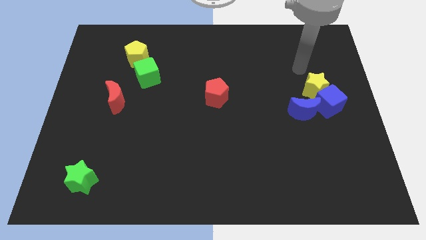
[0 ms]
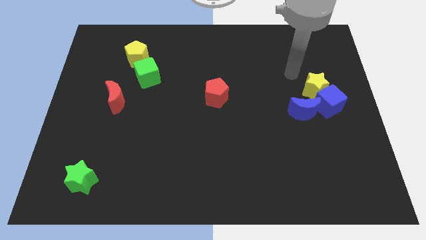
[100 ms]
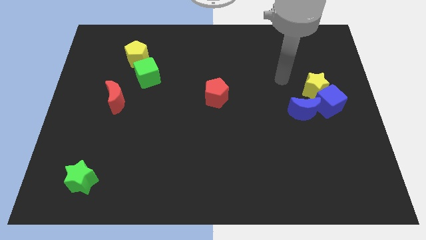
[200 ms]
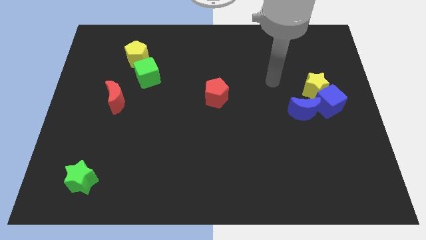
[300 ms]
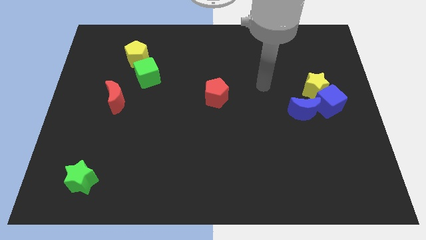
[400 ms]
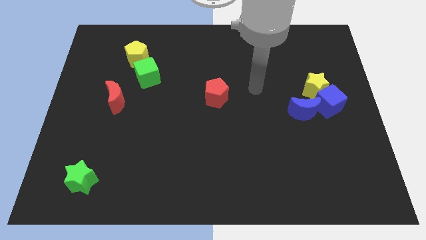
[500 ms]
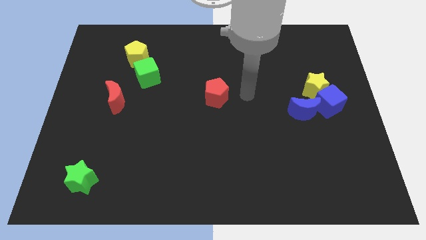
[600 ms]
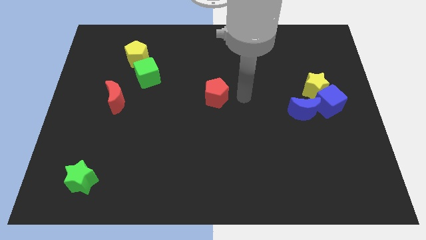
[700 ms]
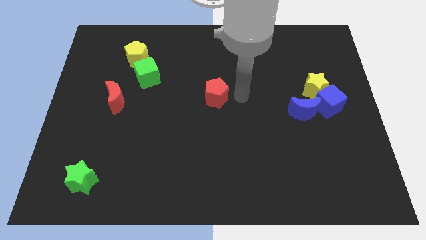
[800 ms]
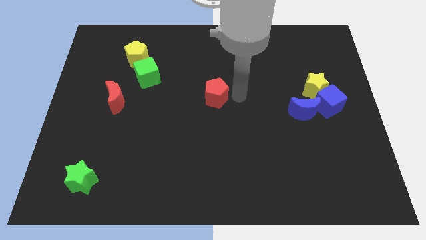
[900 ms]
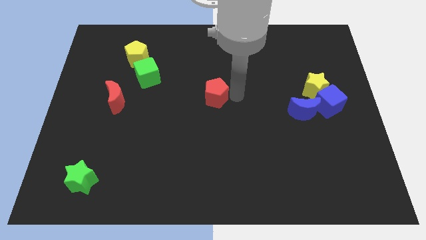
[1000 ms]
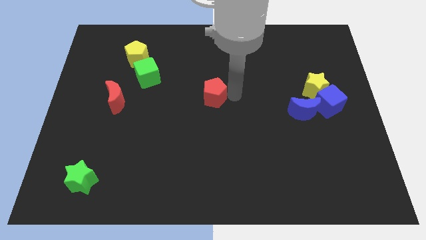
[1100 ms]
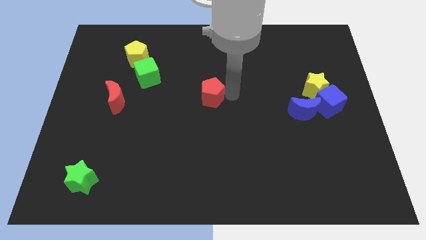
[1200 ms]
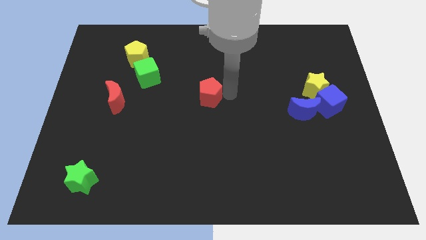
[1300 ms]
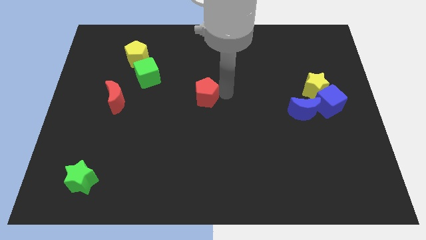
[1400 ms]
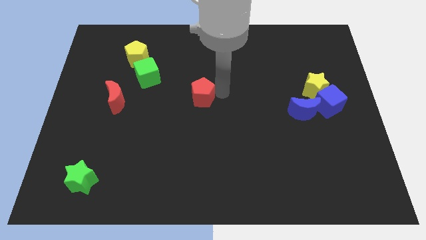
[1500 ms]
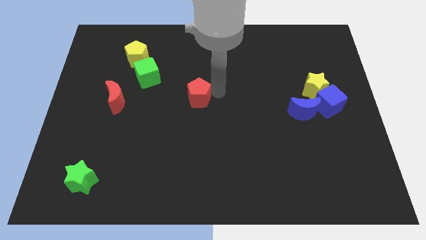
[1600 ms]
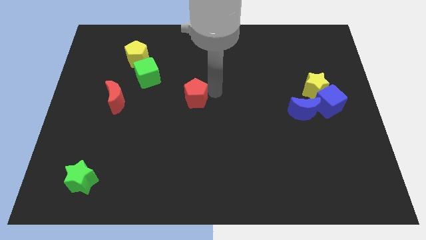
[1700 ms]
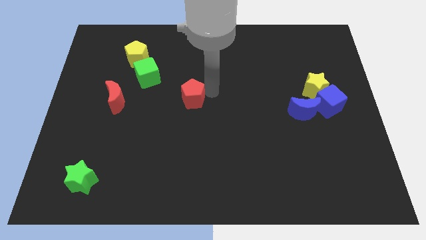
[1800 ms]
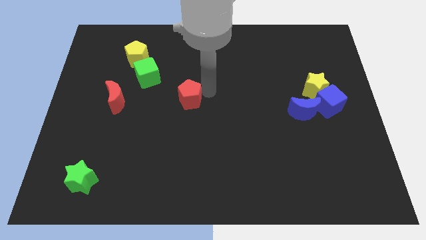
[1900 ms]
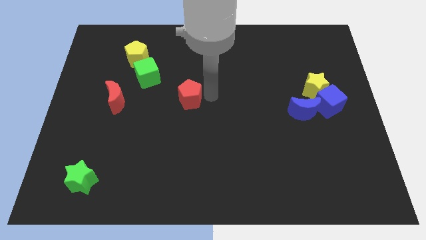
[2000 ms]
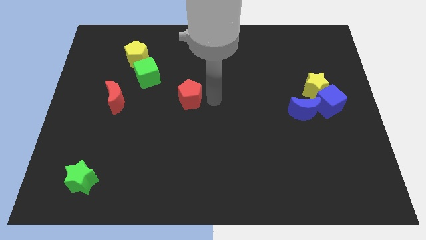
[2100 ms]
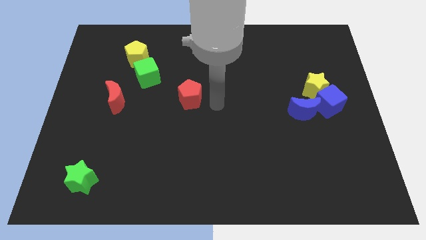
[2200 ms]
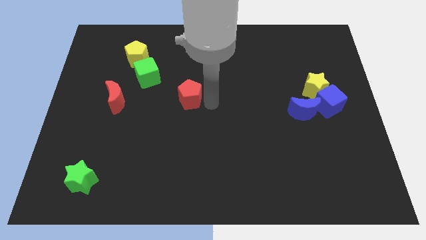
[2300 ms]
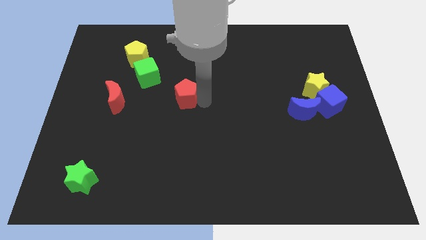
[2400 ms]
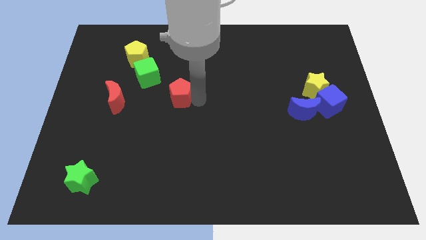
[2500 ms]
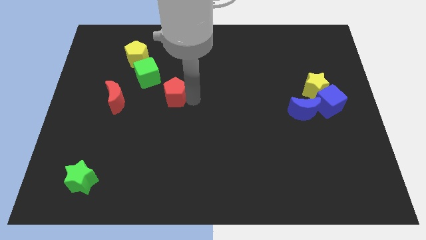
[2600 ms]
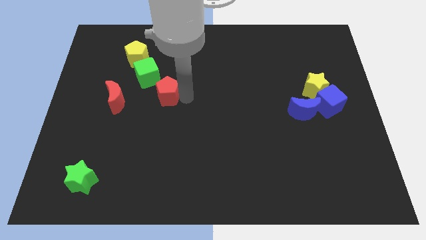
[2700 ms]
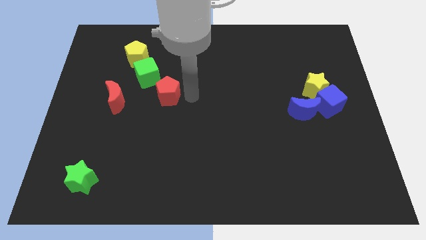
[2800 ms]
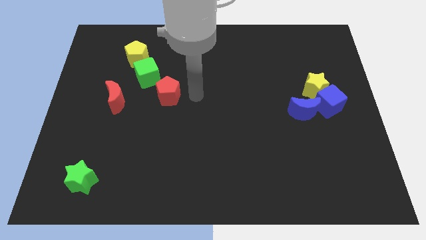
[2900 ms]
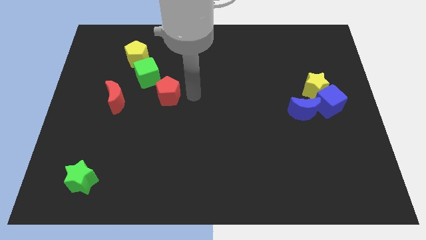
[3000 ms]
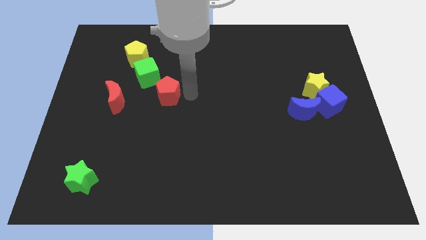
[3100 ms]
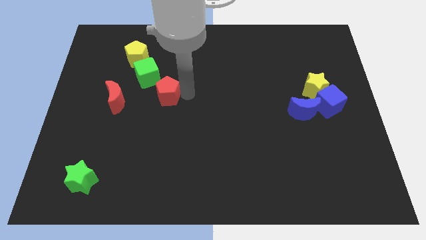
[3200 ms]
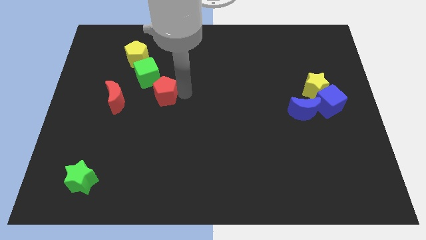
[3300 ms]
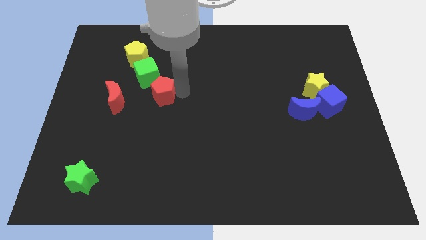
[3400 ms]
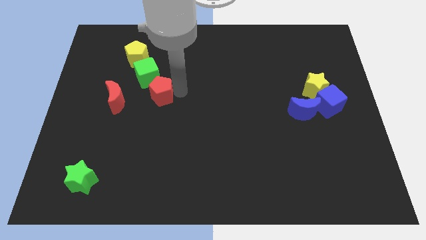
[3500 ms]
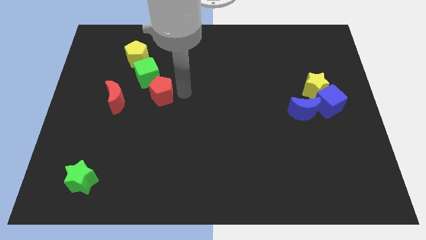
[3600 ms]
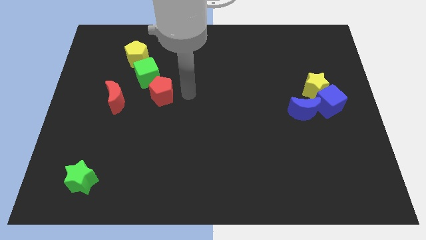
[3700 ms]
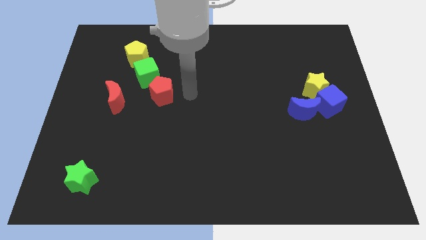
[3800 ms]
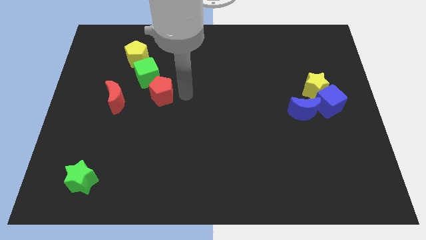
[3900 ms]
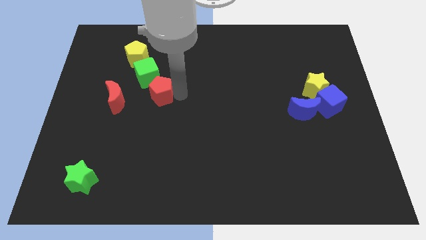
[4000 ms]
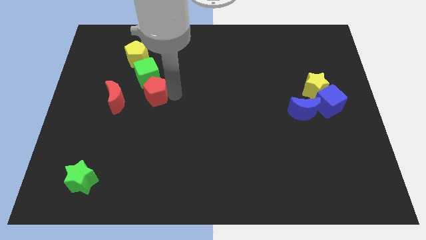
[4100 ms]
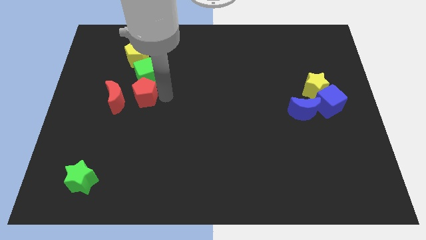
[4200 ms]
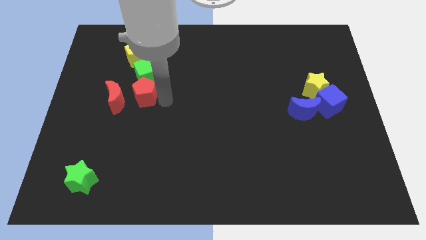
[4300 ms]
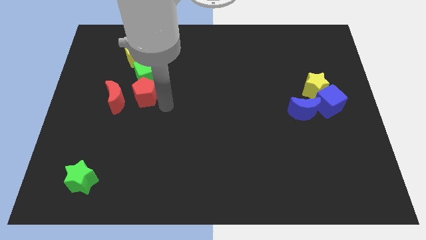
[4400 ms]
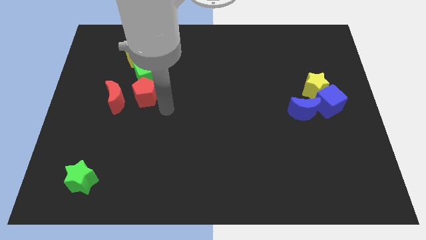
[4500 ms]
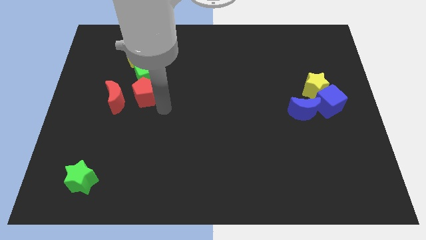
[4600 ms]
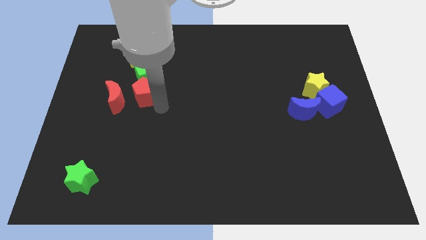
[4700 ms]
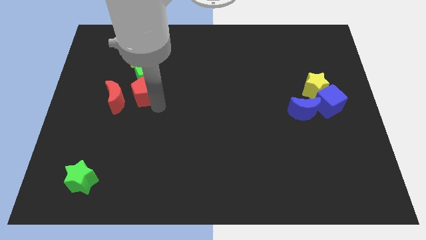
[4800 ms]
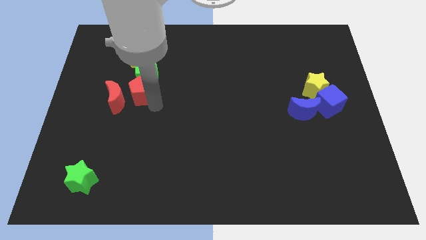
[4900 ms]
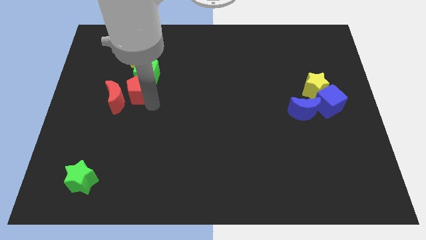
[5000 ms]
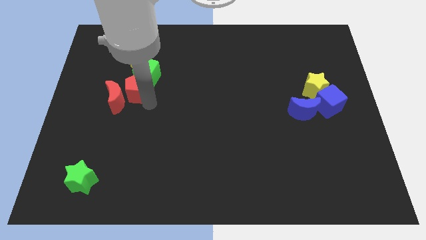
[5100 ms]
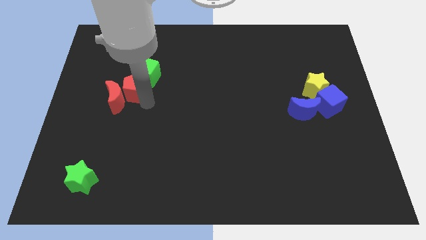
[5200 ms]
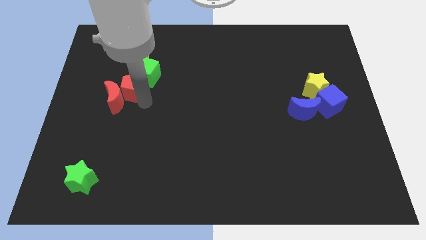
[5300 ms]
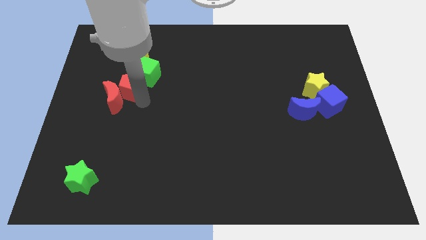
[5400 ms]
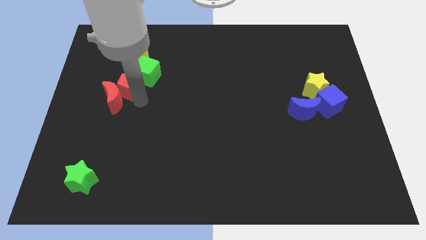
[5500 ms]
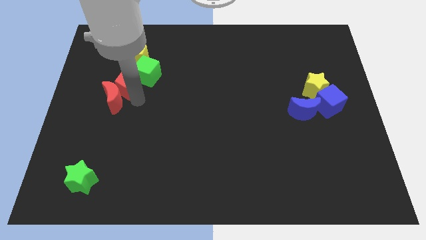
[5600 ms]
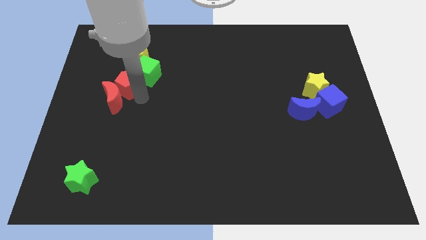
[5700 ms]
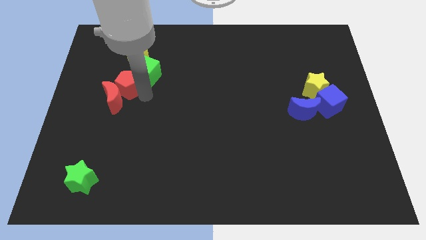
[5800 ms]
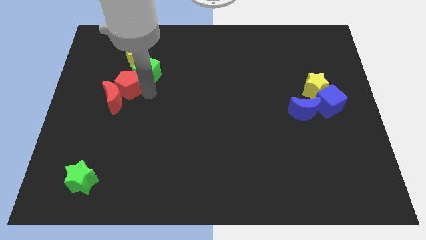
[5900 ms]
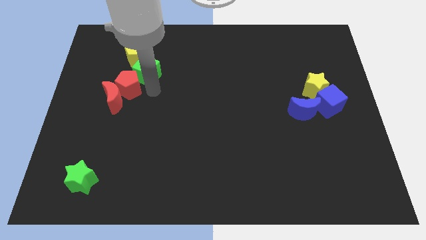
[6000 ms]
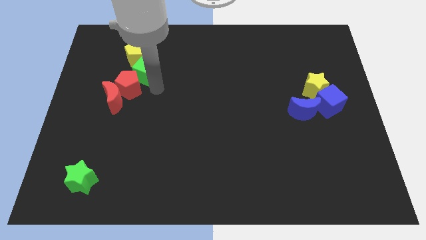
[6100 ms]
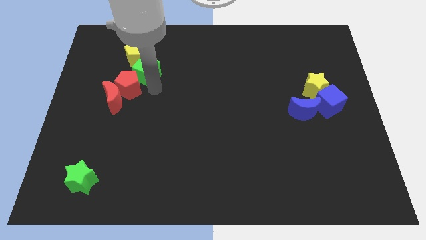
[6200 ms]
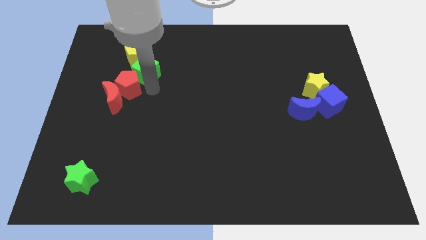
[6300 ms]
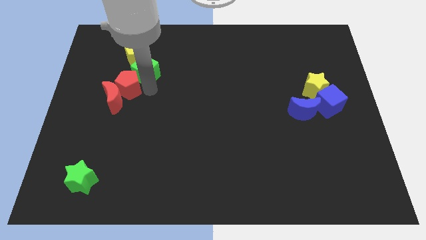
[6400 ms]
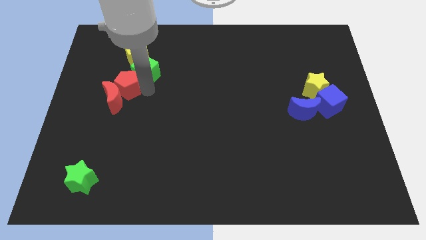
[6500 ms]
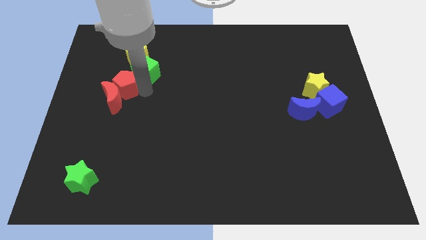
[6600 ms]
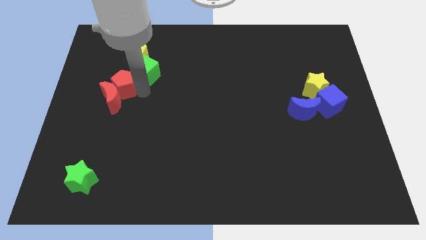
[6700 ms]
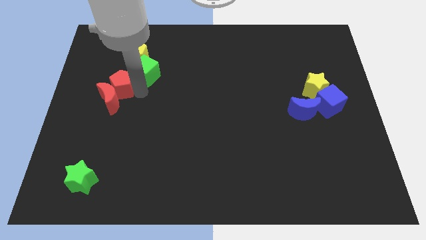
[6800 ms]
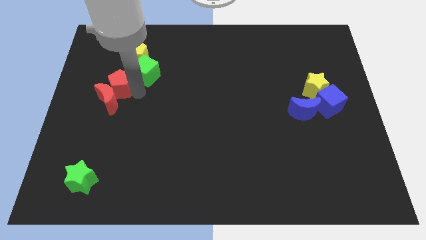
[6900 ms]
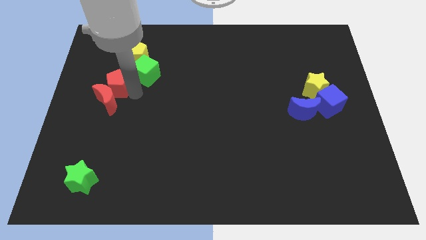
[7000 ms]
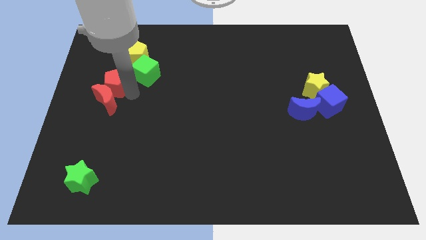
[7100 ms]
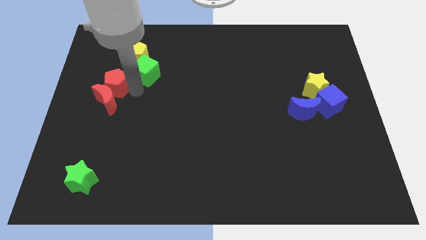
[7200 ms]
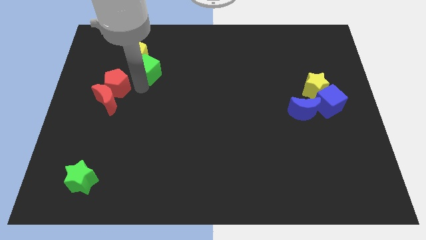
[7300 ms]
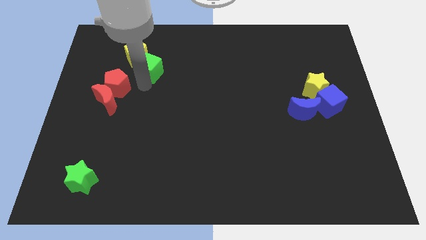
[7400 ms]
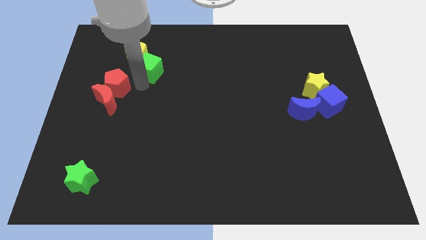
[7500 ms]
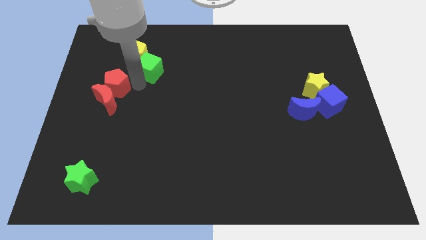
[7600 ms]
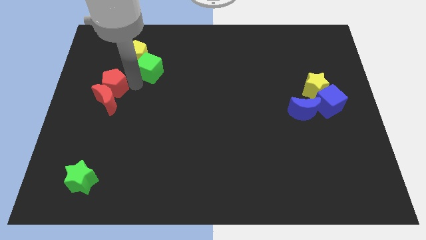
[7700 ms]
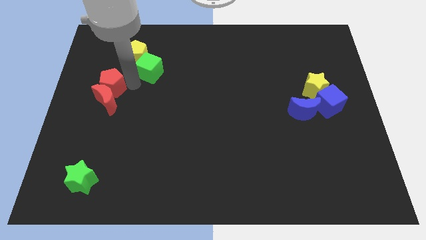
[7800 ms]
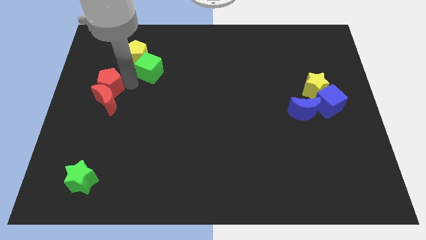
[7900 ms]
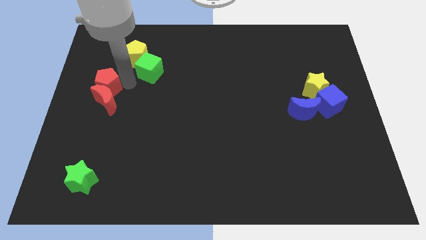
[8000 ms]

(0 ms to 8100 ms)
move the red pentagon to the center left

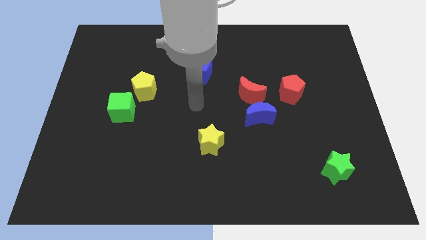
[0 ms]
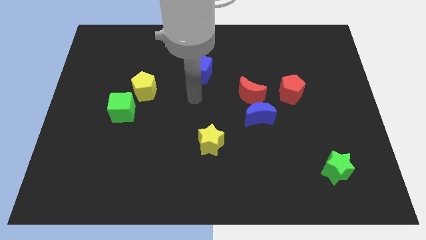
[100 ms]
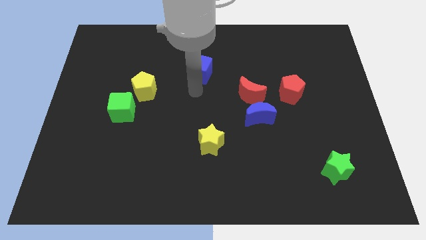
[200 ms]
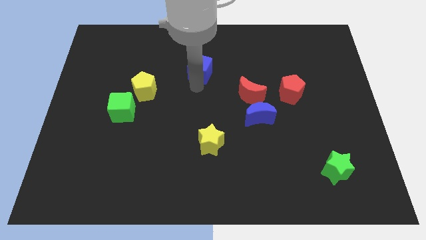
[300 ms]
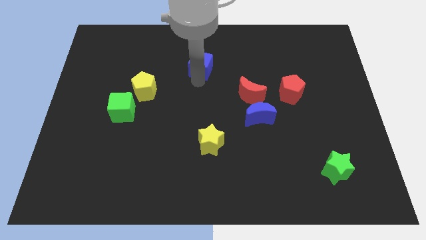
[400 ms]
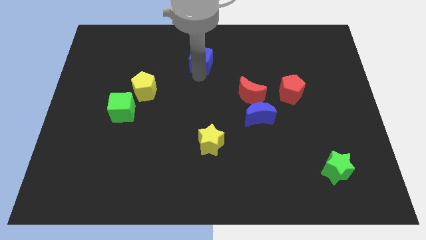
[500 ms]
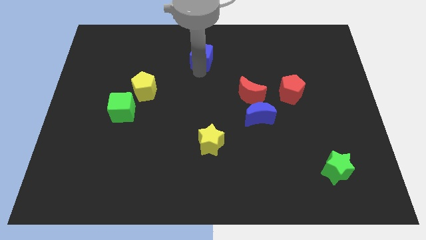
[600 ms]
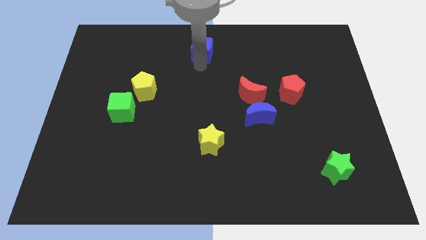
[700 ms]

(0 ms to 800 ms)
push the blue cube to the top side
